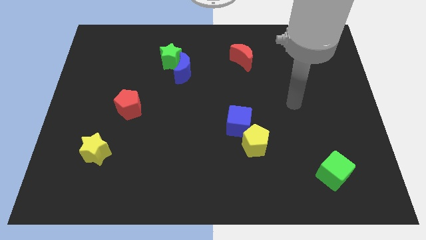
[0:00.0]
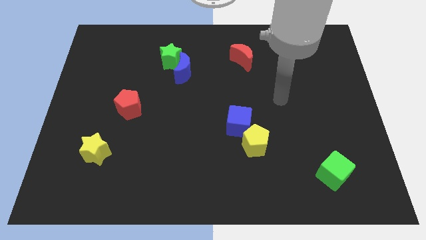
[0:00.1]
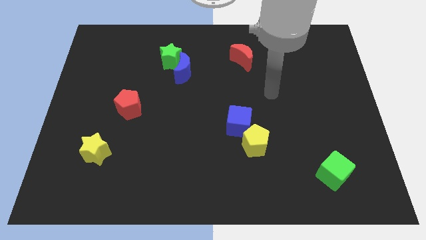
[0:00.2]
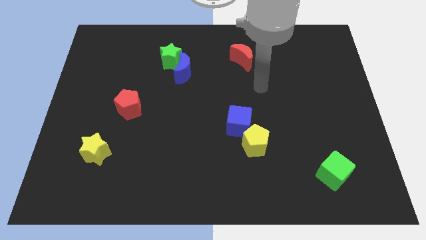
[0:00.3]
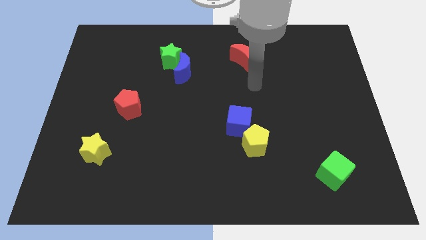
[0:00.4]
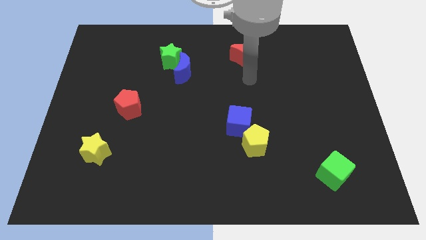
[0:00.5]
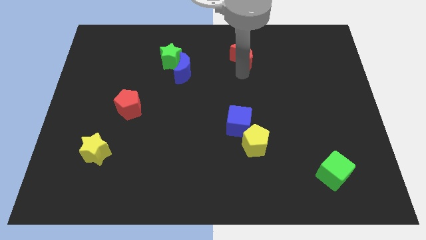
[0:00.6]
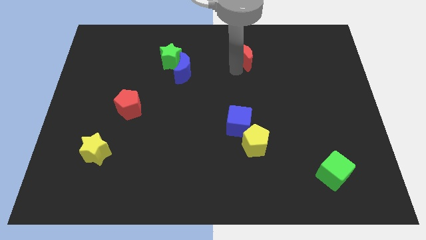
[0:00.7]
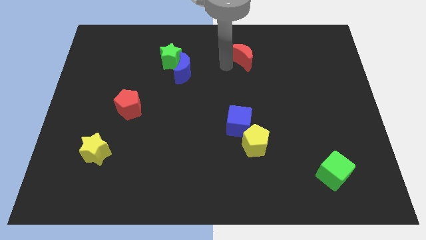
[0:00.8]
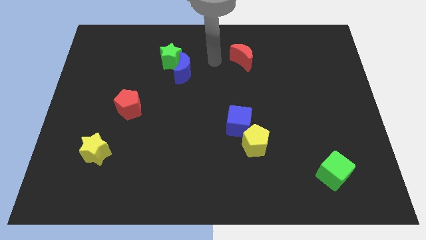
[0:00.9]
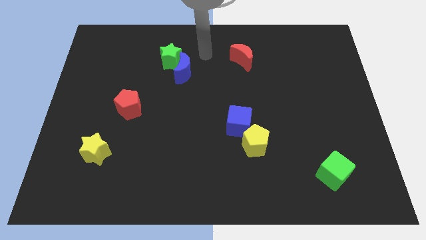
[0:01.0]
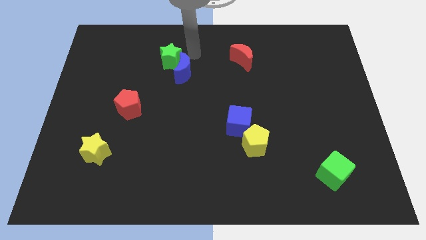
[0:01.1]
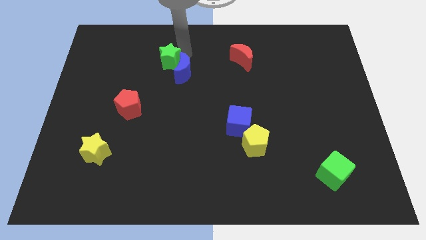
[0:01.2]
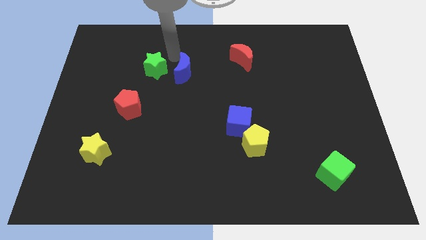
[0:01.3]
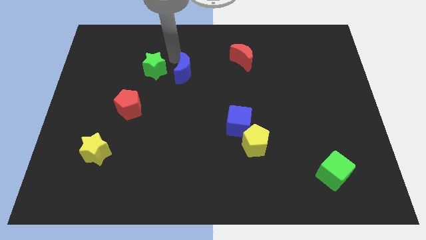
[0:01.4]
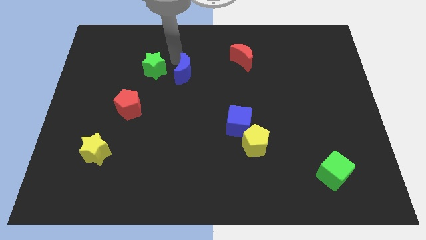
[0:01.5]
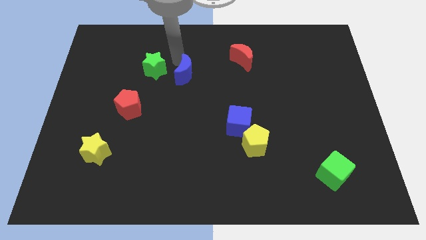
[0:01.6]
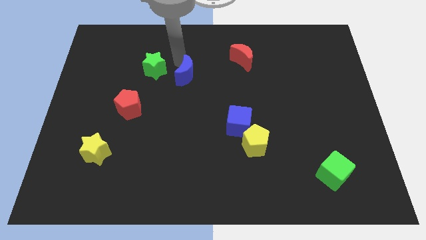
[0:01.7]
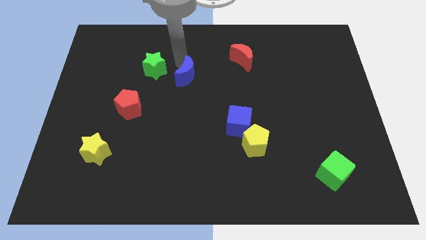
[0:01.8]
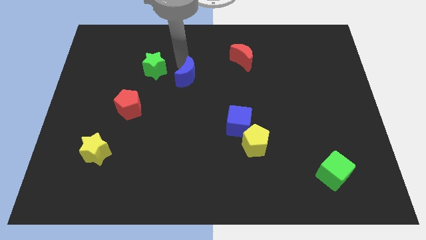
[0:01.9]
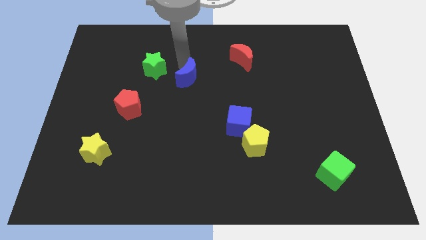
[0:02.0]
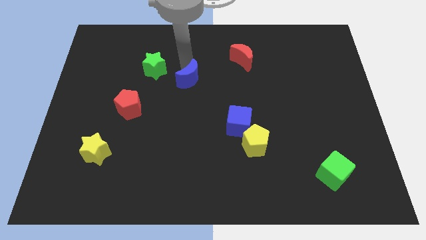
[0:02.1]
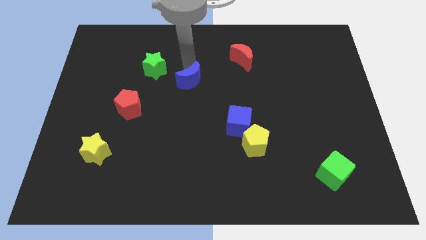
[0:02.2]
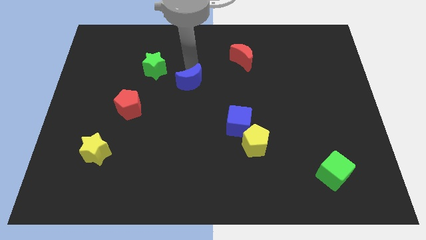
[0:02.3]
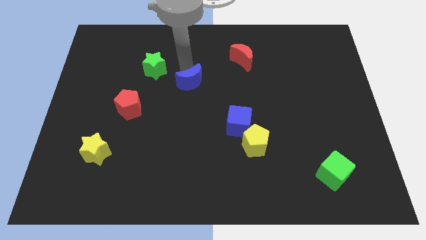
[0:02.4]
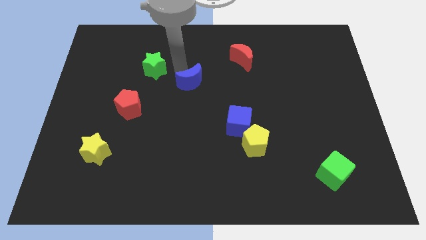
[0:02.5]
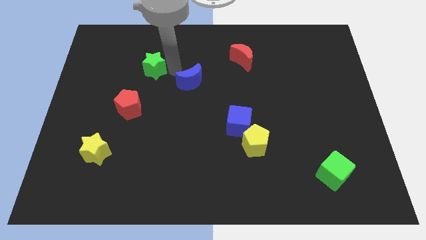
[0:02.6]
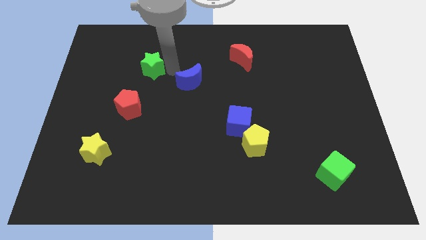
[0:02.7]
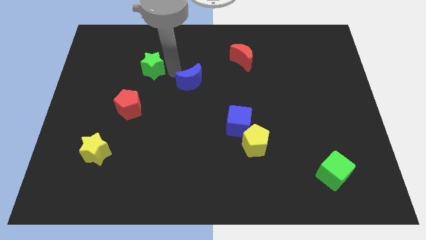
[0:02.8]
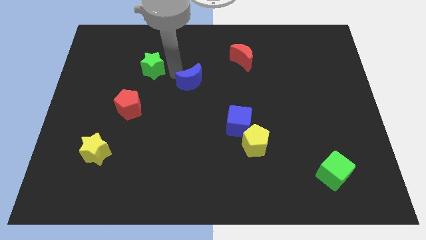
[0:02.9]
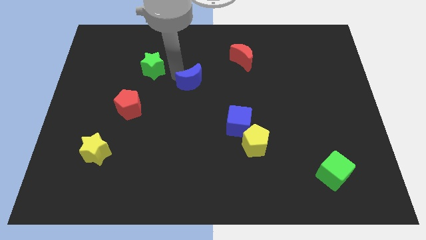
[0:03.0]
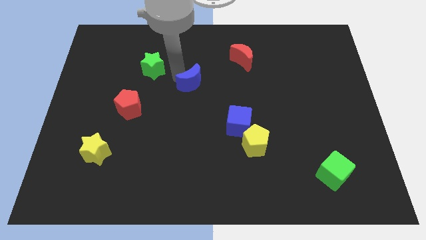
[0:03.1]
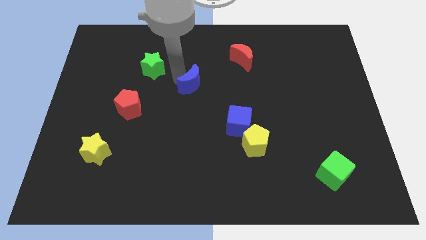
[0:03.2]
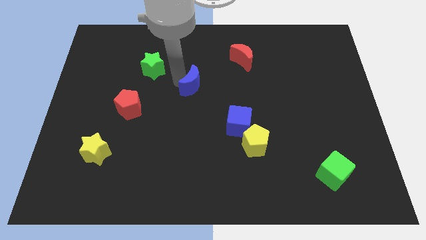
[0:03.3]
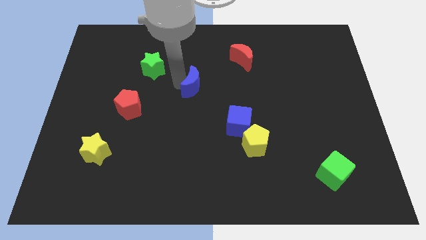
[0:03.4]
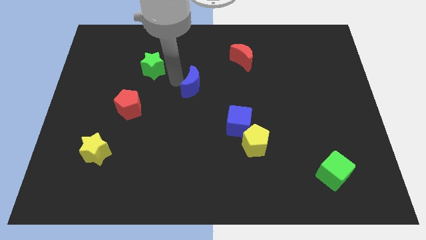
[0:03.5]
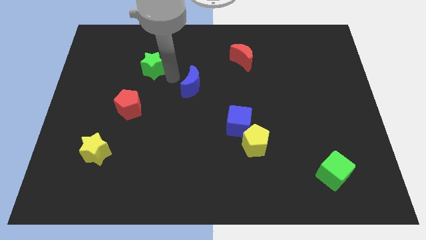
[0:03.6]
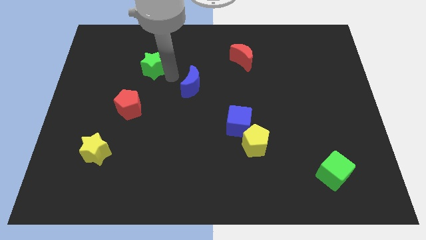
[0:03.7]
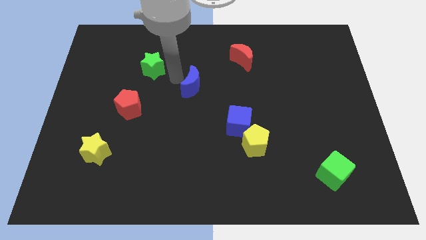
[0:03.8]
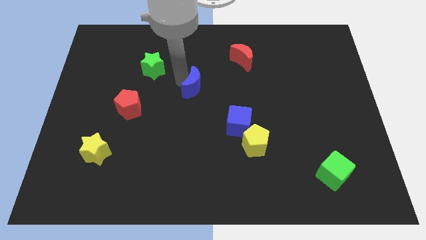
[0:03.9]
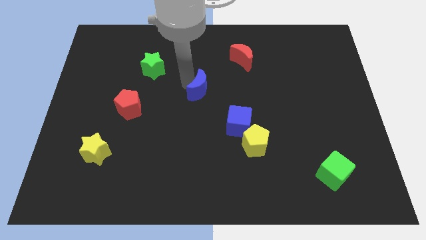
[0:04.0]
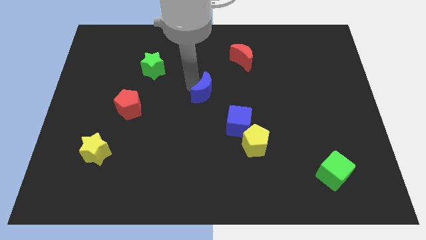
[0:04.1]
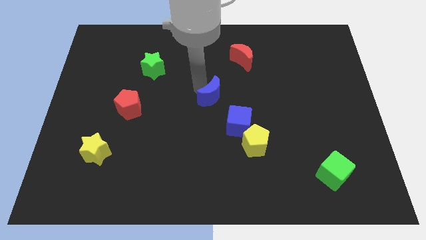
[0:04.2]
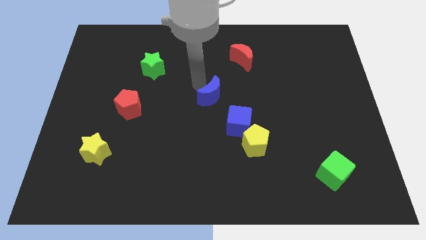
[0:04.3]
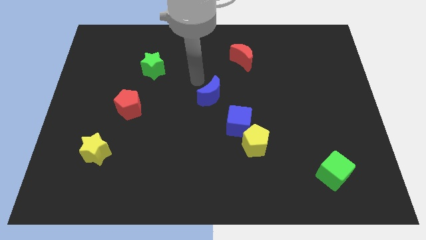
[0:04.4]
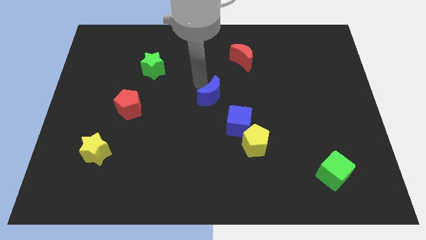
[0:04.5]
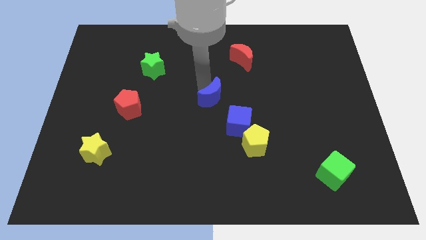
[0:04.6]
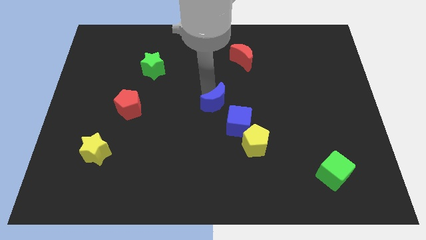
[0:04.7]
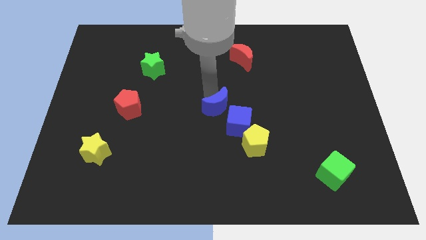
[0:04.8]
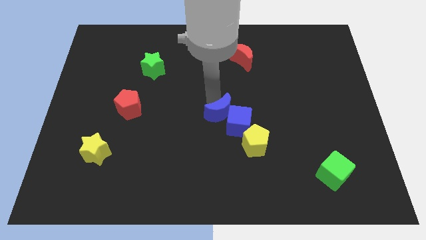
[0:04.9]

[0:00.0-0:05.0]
push the blue moon towards the blue cube

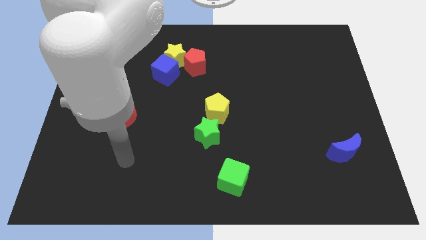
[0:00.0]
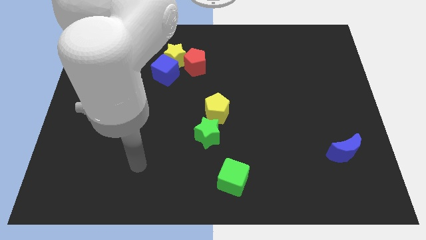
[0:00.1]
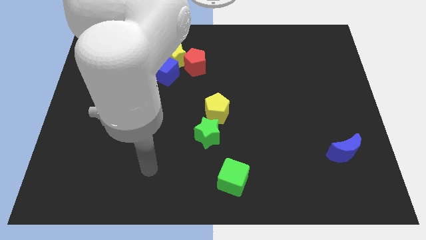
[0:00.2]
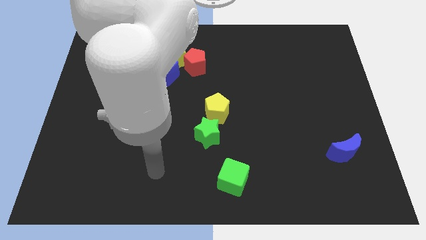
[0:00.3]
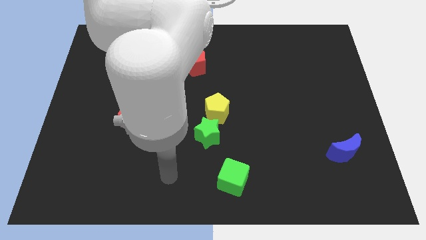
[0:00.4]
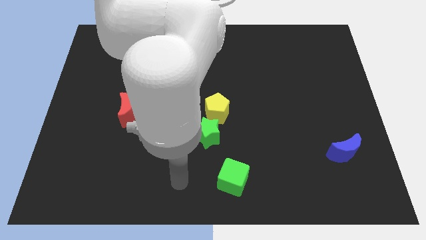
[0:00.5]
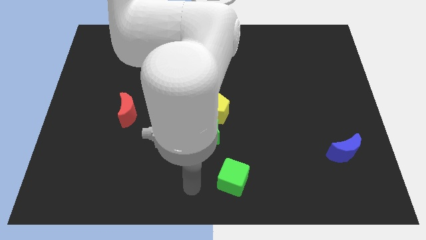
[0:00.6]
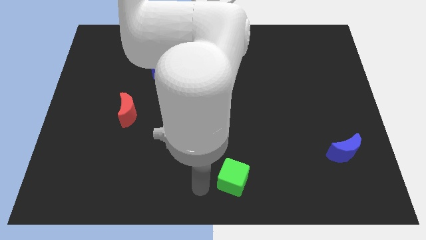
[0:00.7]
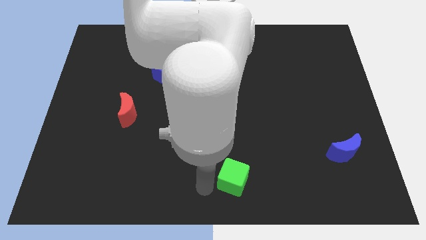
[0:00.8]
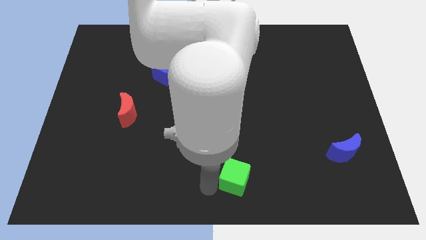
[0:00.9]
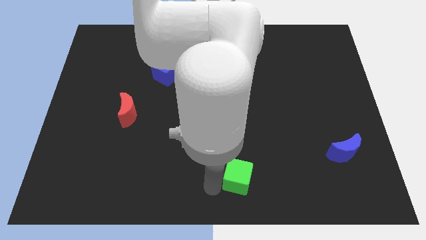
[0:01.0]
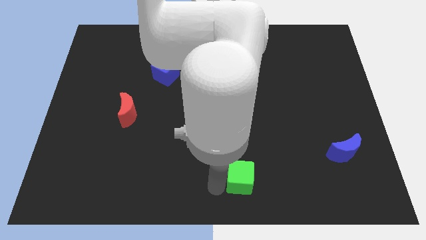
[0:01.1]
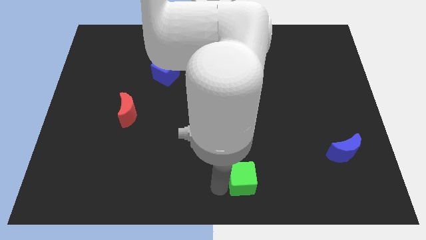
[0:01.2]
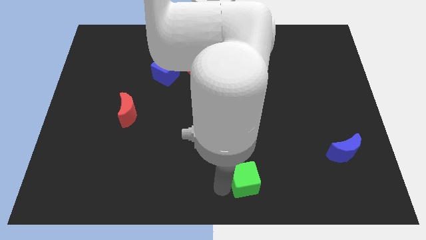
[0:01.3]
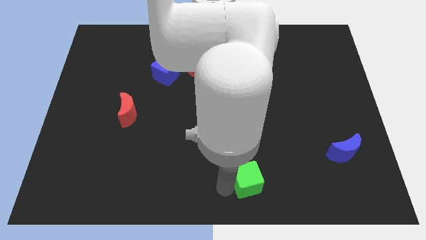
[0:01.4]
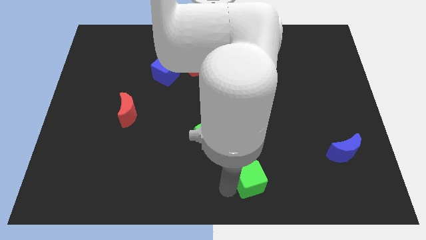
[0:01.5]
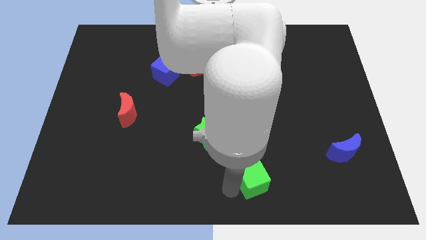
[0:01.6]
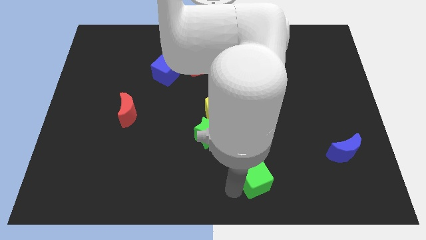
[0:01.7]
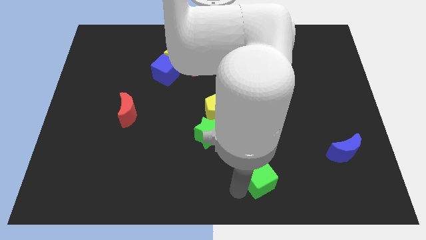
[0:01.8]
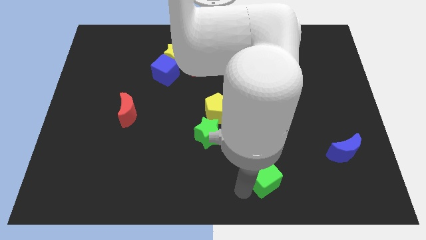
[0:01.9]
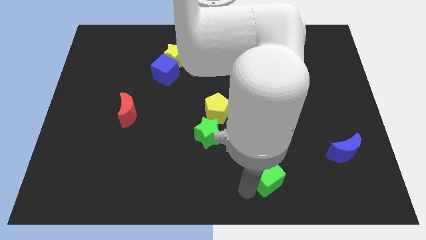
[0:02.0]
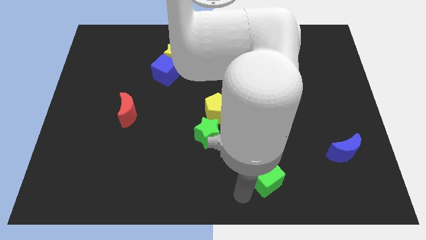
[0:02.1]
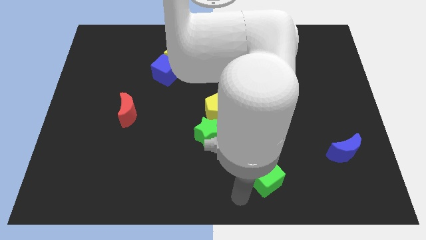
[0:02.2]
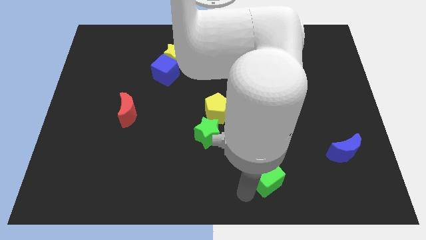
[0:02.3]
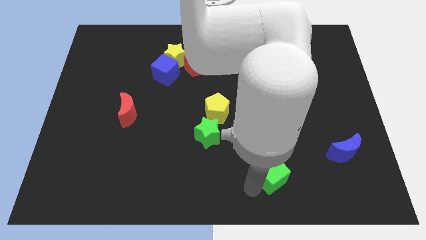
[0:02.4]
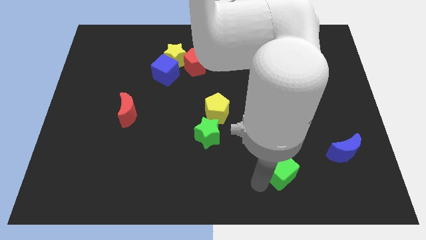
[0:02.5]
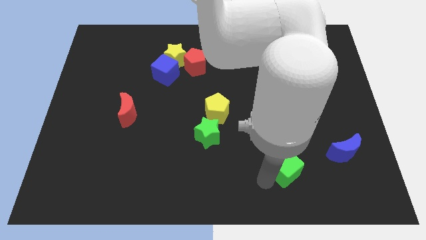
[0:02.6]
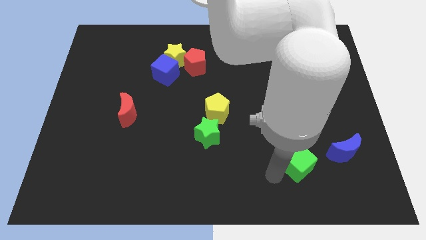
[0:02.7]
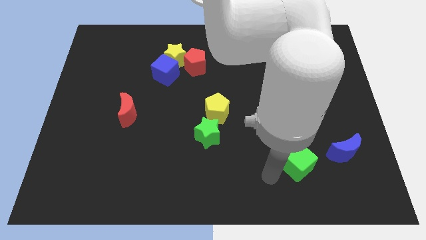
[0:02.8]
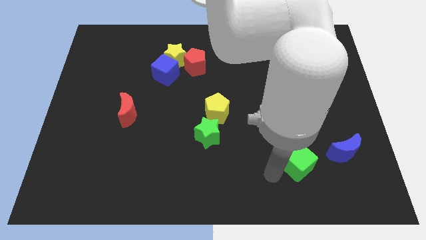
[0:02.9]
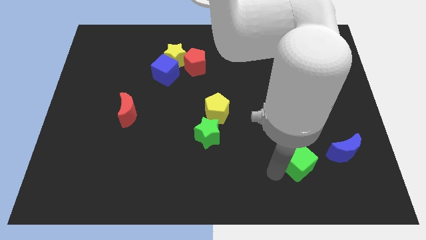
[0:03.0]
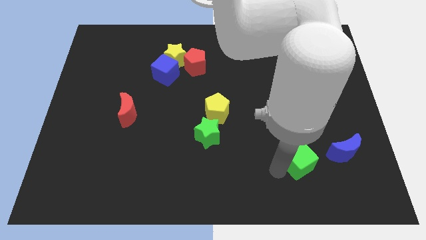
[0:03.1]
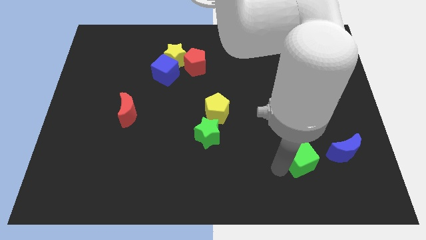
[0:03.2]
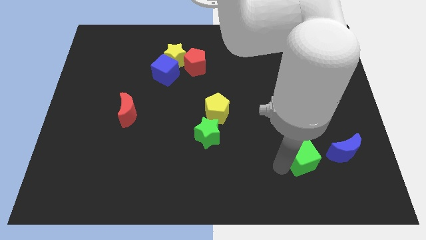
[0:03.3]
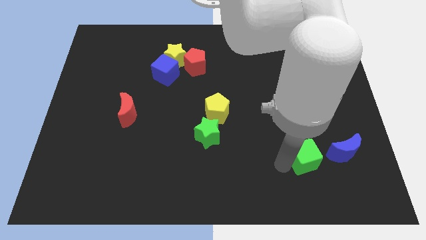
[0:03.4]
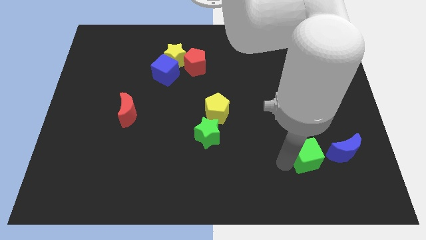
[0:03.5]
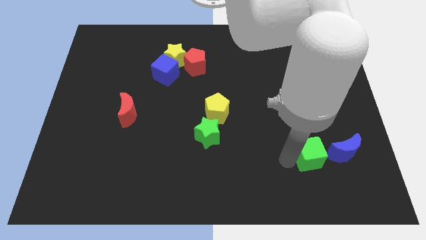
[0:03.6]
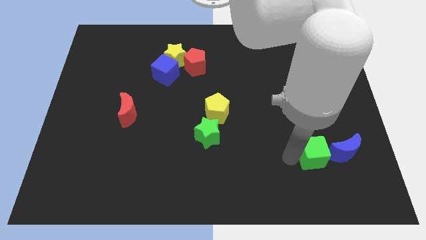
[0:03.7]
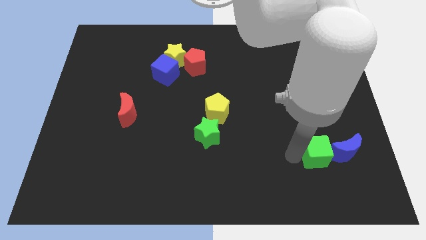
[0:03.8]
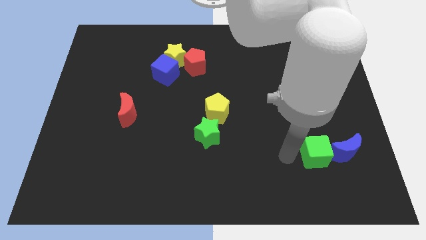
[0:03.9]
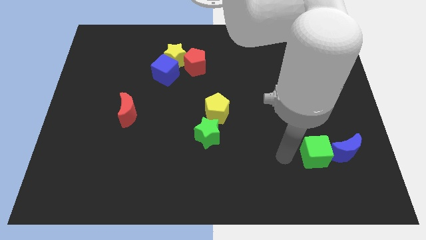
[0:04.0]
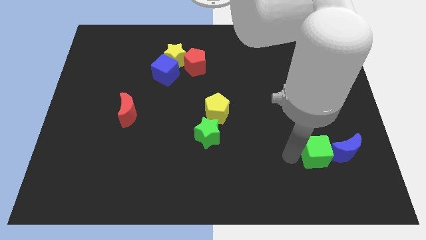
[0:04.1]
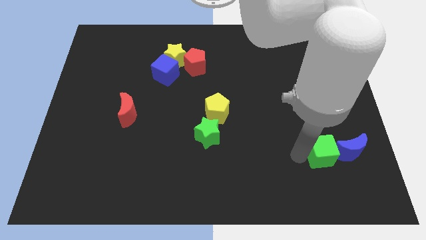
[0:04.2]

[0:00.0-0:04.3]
move the green cube to the blue moon
